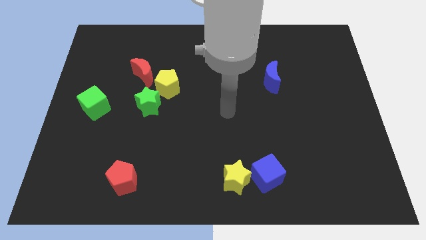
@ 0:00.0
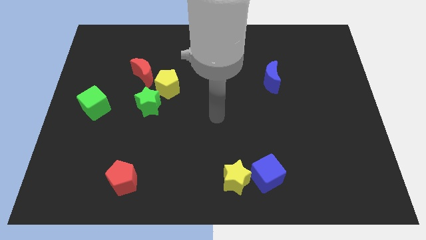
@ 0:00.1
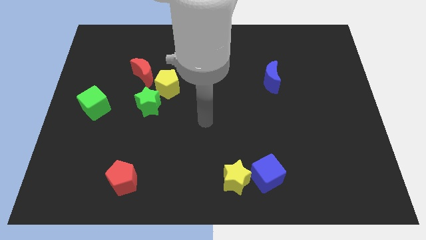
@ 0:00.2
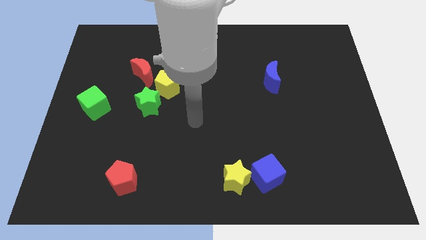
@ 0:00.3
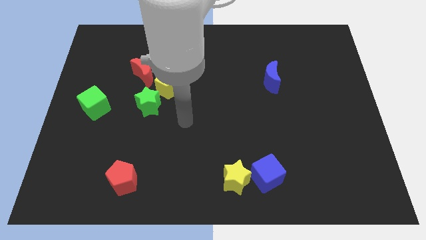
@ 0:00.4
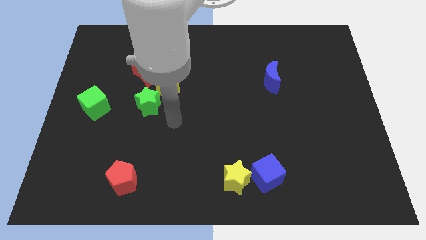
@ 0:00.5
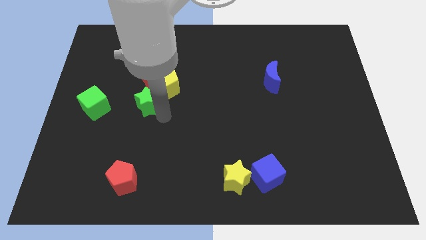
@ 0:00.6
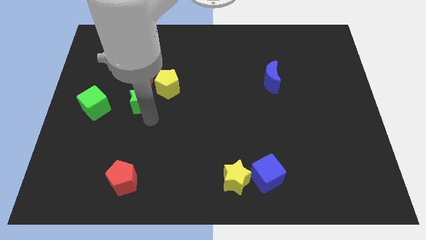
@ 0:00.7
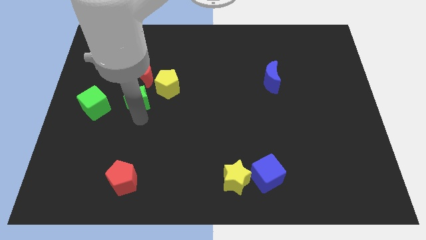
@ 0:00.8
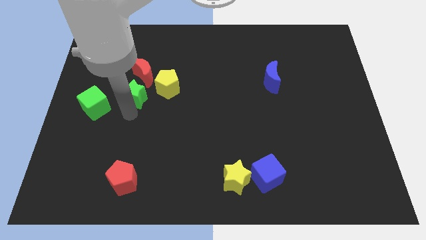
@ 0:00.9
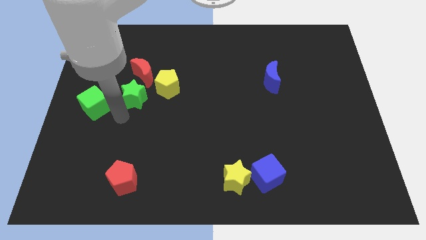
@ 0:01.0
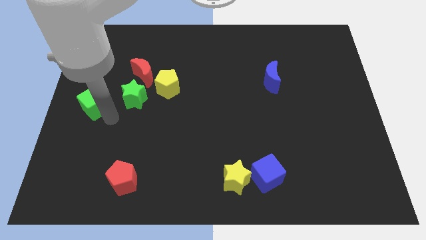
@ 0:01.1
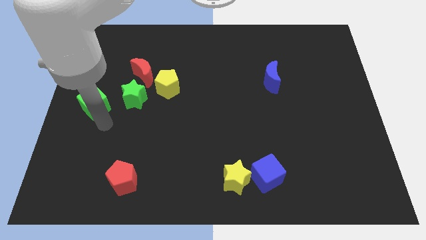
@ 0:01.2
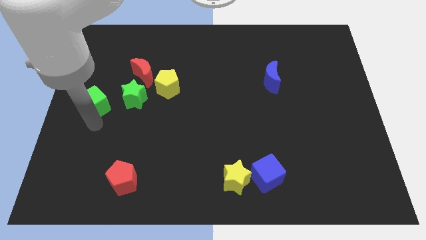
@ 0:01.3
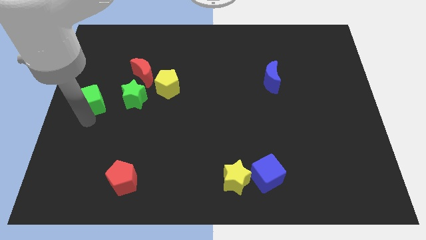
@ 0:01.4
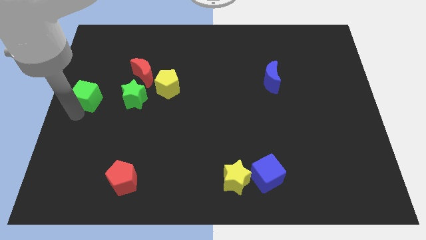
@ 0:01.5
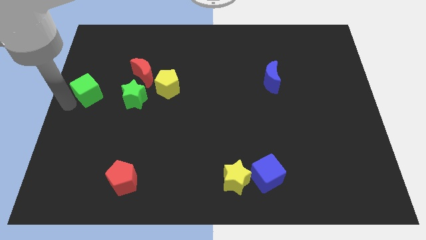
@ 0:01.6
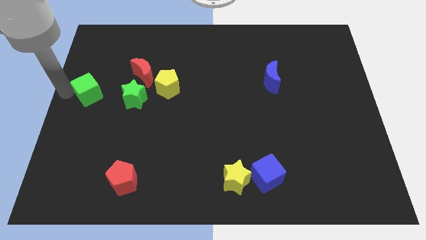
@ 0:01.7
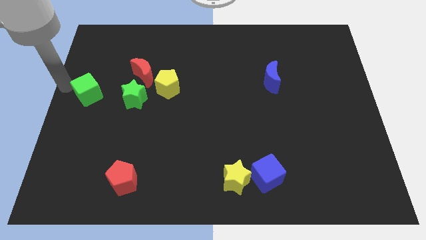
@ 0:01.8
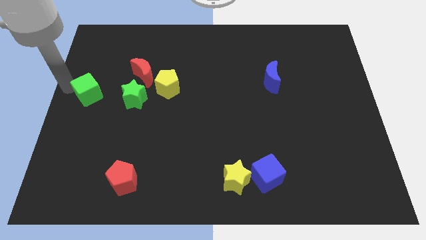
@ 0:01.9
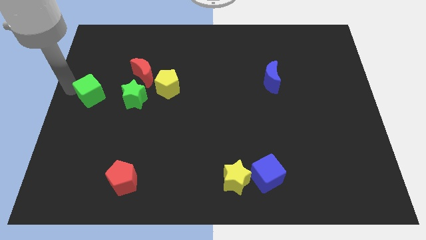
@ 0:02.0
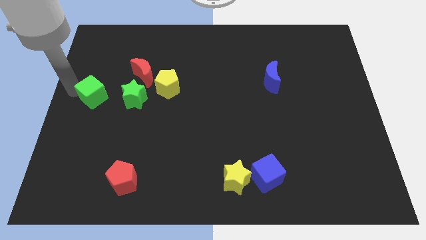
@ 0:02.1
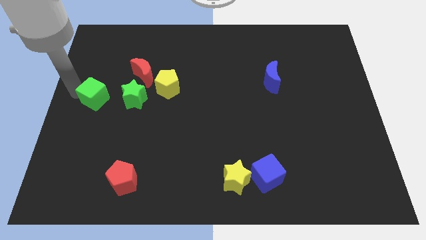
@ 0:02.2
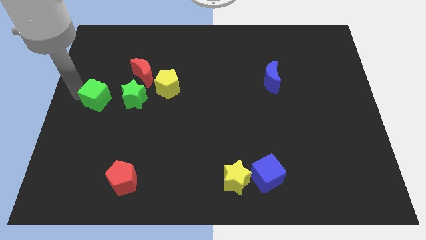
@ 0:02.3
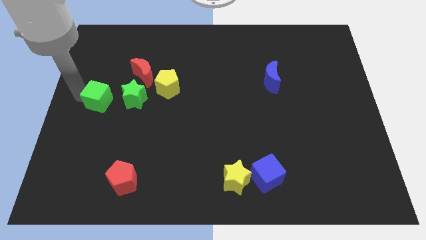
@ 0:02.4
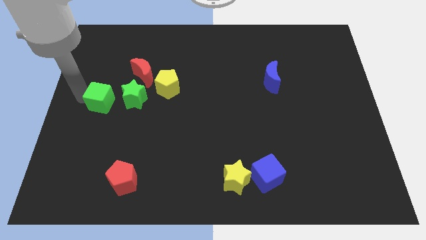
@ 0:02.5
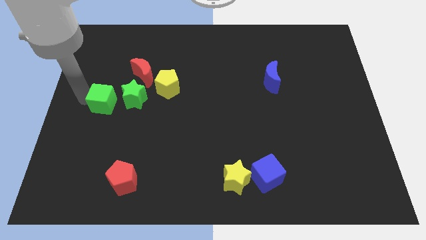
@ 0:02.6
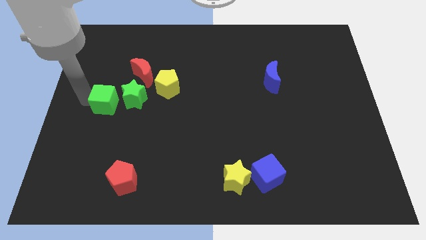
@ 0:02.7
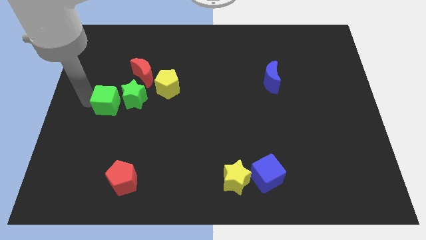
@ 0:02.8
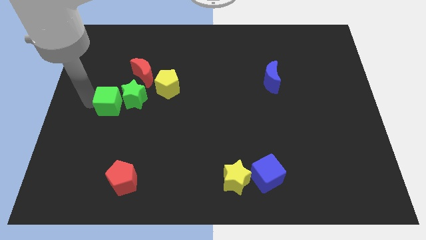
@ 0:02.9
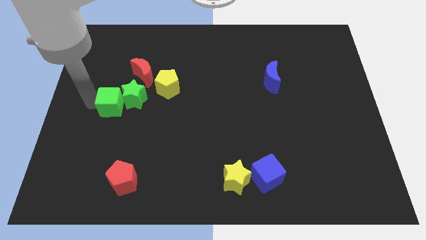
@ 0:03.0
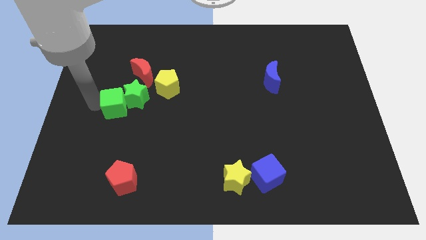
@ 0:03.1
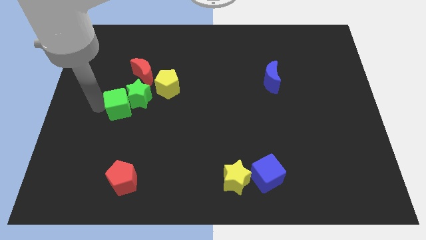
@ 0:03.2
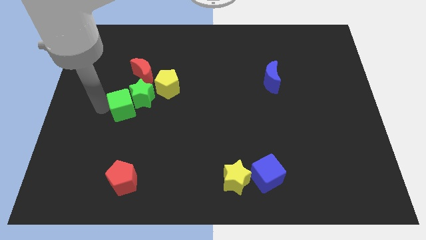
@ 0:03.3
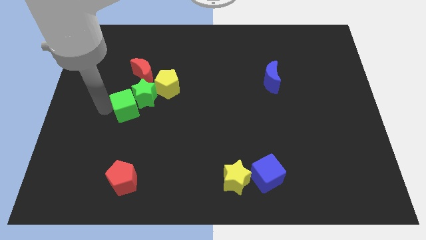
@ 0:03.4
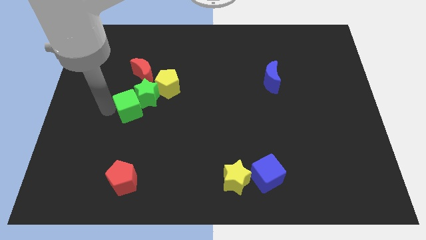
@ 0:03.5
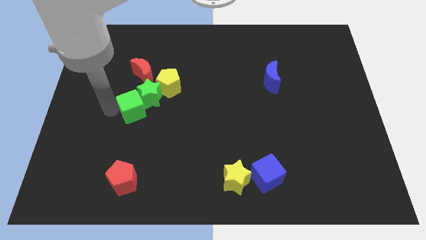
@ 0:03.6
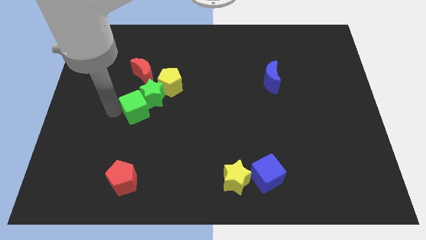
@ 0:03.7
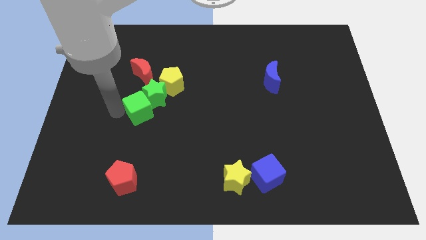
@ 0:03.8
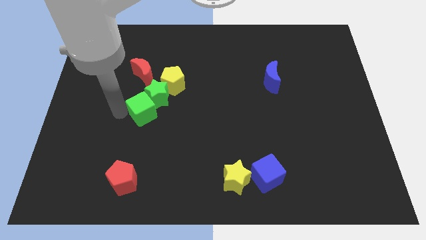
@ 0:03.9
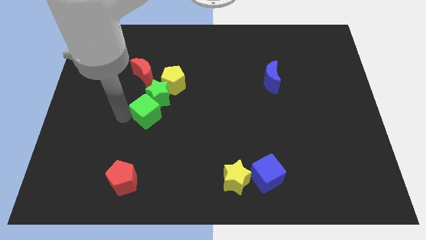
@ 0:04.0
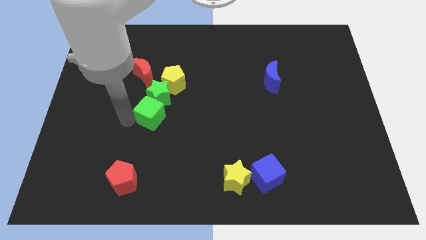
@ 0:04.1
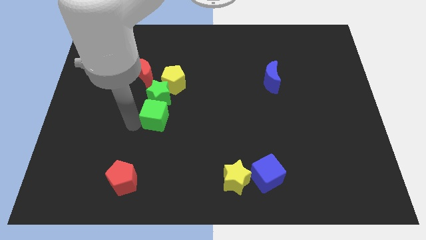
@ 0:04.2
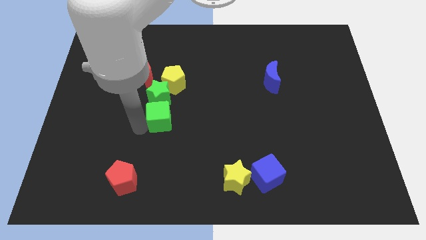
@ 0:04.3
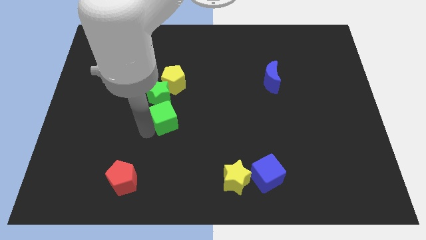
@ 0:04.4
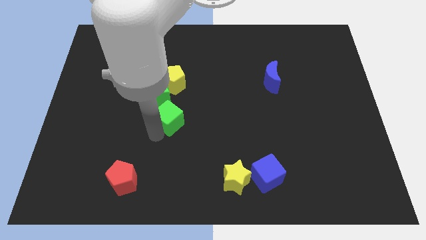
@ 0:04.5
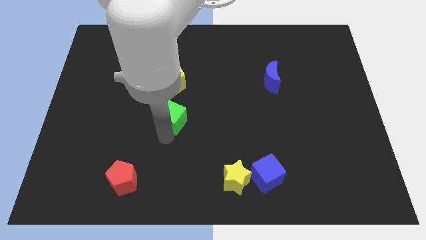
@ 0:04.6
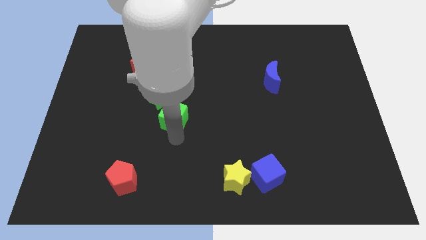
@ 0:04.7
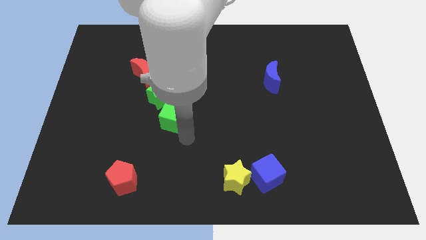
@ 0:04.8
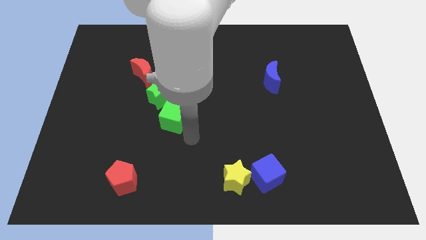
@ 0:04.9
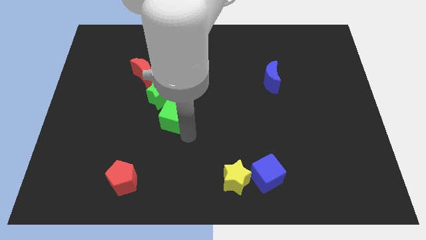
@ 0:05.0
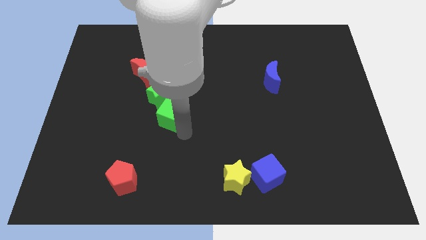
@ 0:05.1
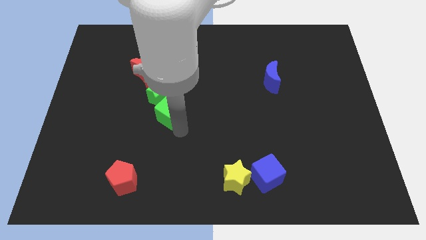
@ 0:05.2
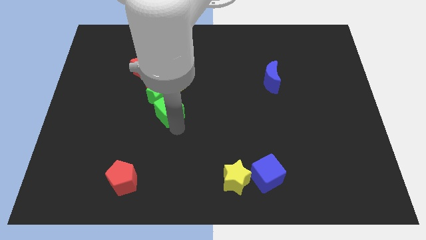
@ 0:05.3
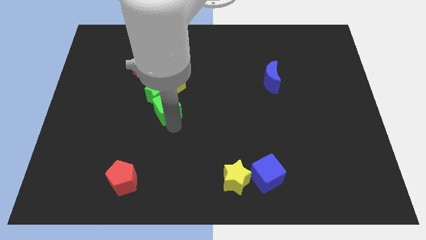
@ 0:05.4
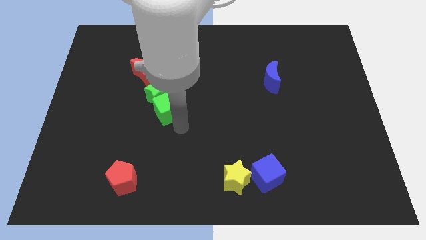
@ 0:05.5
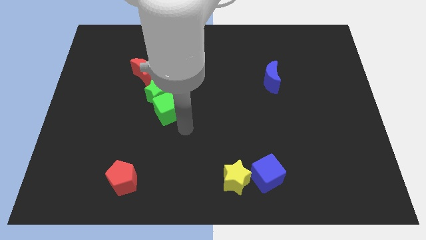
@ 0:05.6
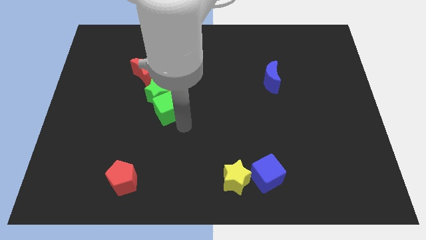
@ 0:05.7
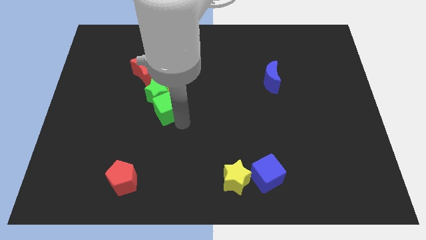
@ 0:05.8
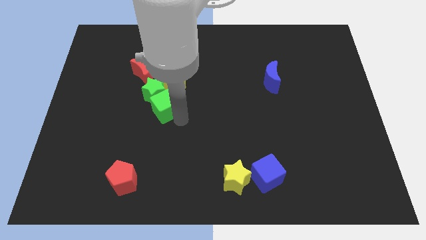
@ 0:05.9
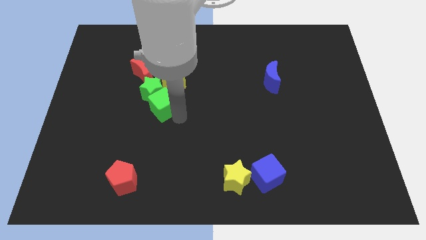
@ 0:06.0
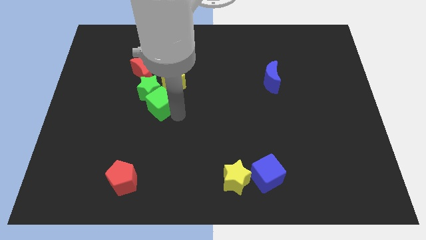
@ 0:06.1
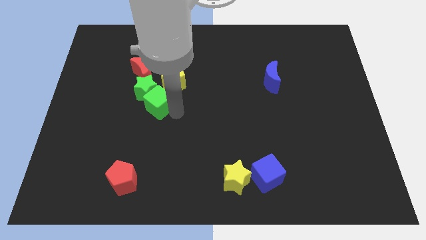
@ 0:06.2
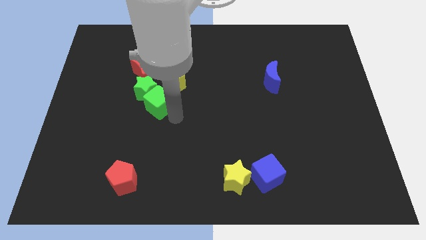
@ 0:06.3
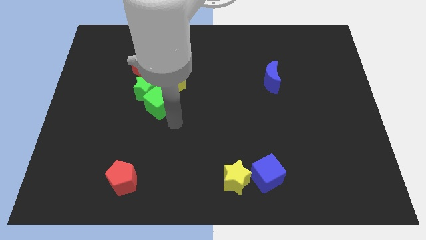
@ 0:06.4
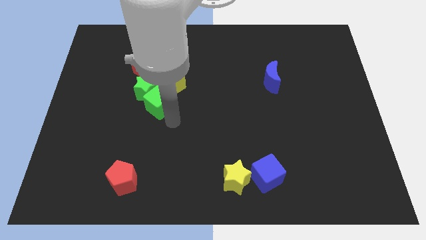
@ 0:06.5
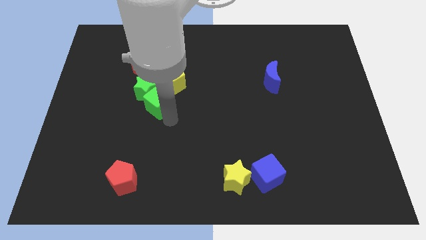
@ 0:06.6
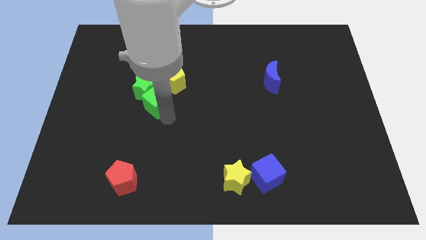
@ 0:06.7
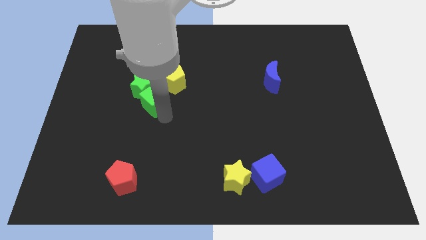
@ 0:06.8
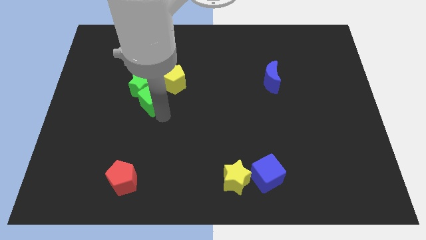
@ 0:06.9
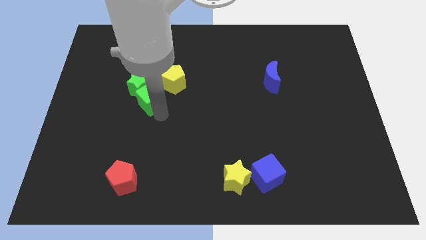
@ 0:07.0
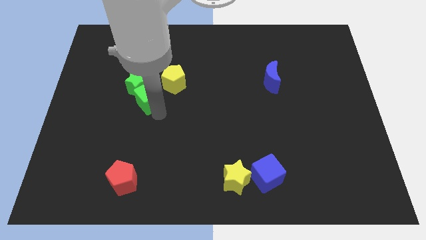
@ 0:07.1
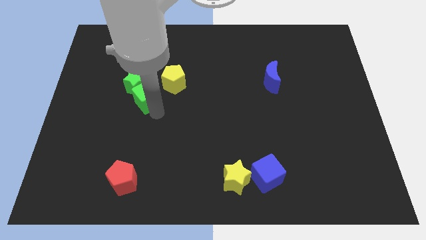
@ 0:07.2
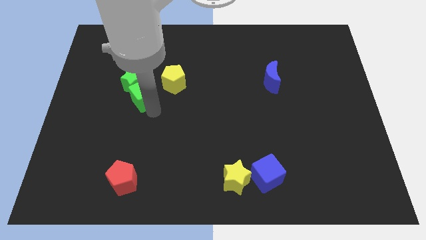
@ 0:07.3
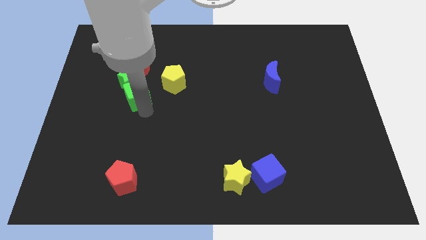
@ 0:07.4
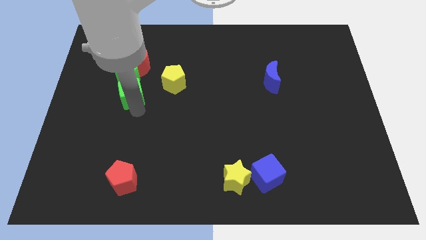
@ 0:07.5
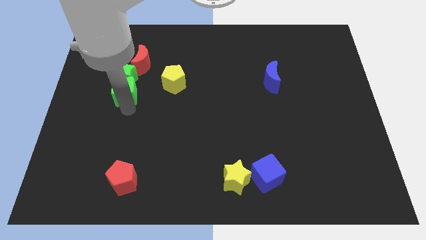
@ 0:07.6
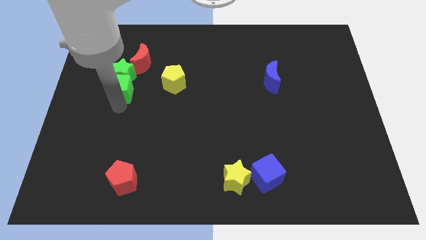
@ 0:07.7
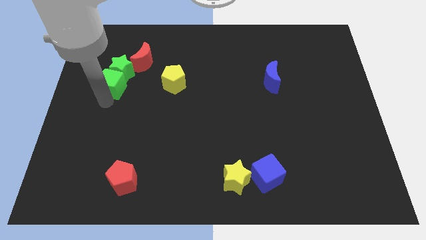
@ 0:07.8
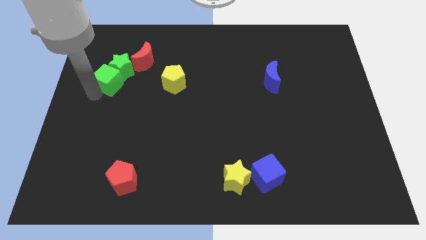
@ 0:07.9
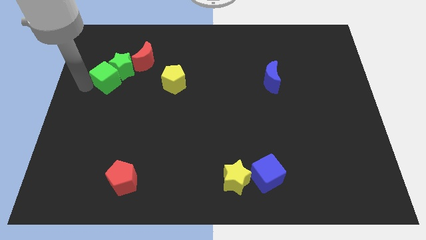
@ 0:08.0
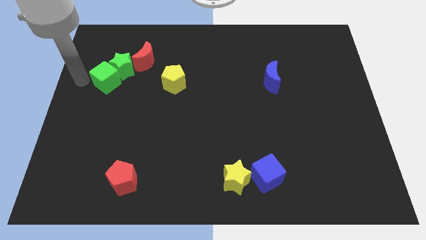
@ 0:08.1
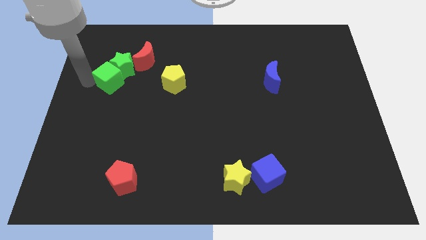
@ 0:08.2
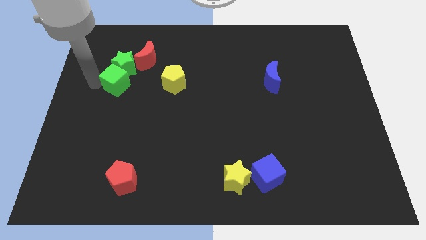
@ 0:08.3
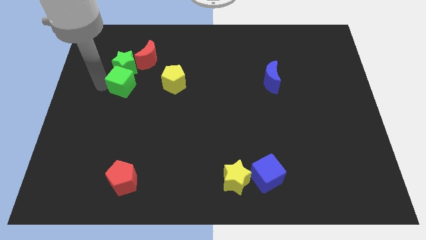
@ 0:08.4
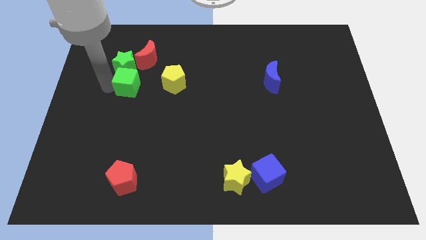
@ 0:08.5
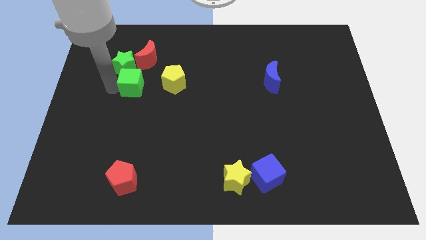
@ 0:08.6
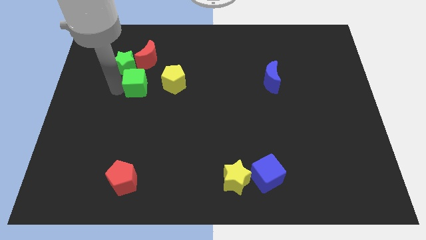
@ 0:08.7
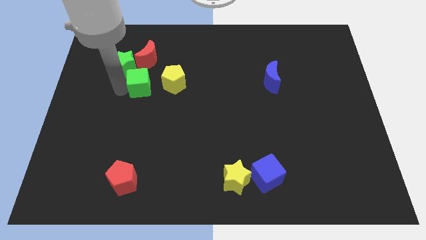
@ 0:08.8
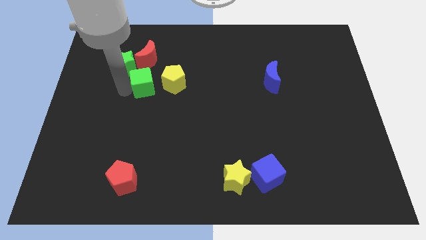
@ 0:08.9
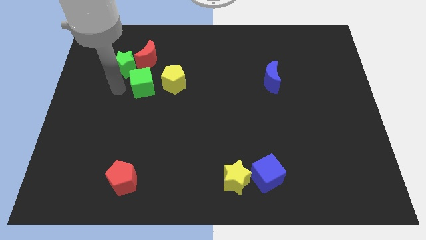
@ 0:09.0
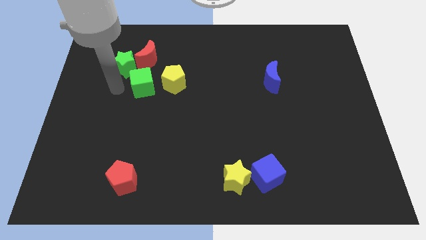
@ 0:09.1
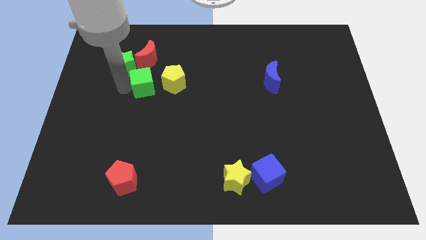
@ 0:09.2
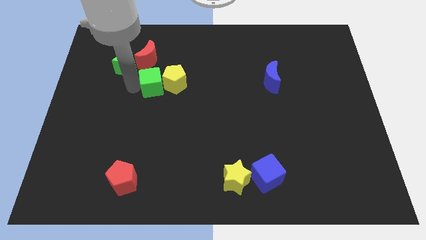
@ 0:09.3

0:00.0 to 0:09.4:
move the green cube to the yellow pentagon
